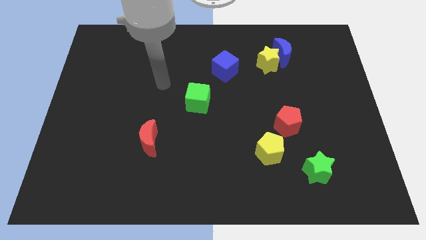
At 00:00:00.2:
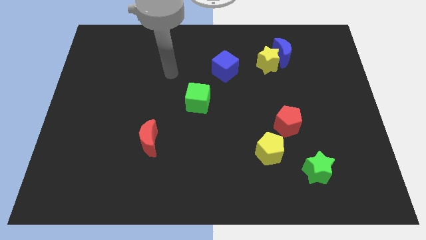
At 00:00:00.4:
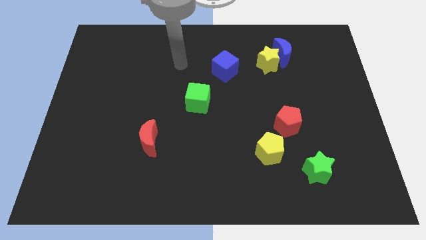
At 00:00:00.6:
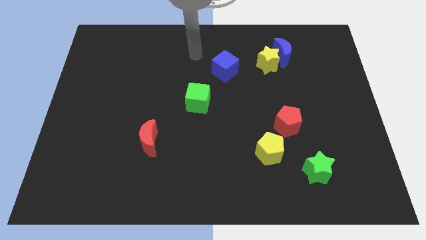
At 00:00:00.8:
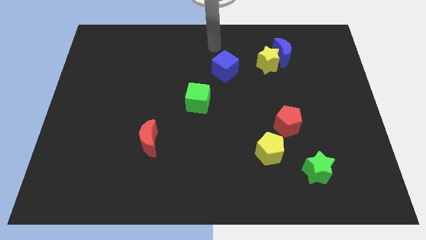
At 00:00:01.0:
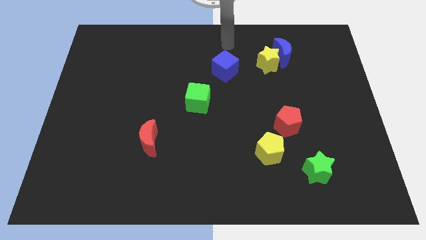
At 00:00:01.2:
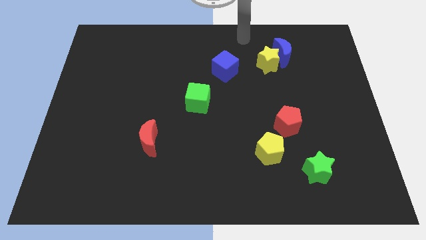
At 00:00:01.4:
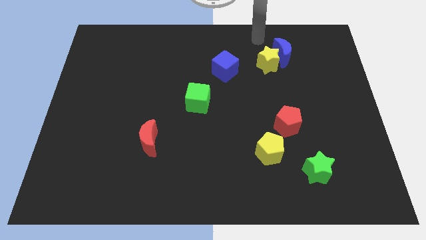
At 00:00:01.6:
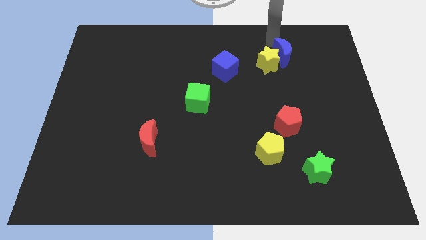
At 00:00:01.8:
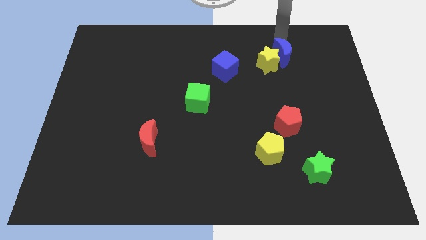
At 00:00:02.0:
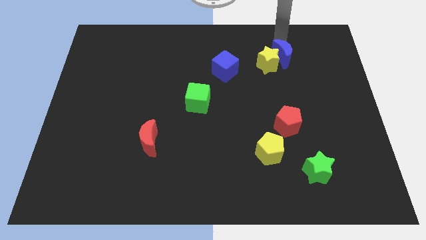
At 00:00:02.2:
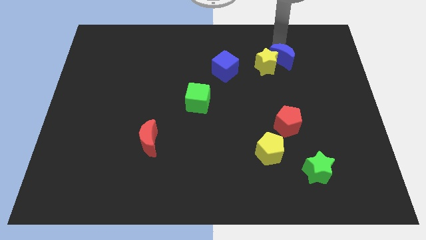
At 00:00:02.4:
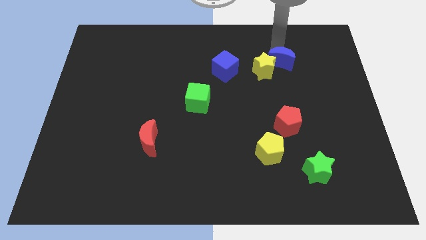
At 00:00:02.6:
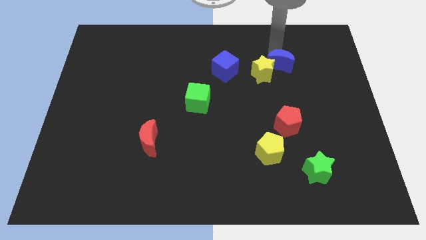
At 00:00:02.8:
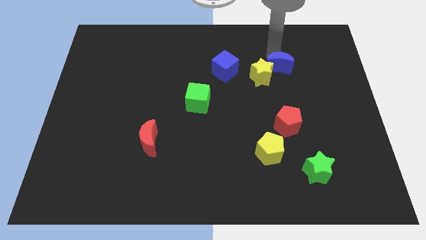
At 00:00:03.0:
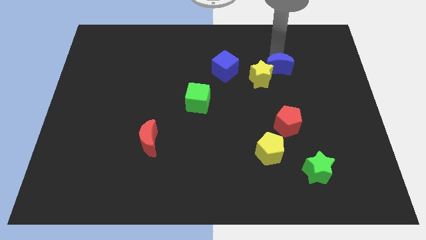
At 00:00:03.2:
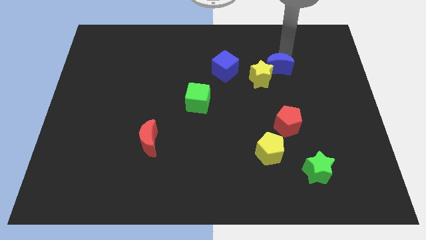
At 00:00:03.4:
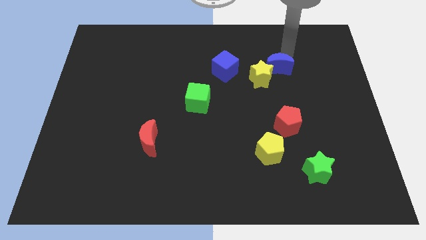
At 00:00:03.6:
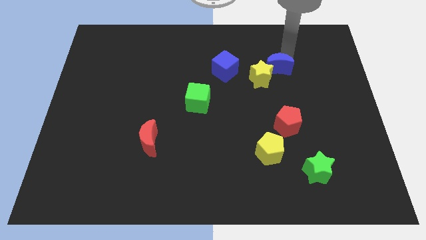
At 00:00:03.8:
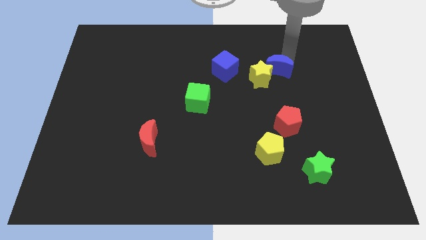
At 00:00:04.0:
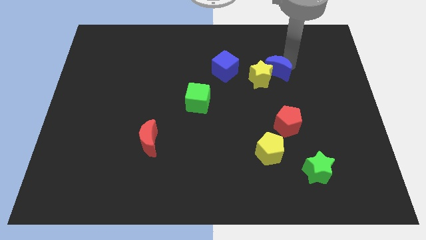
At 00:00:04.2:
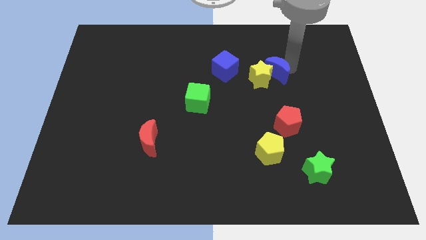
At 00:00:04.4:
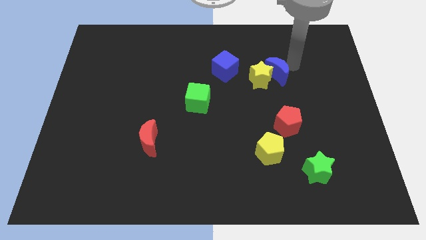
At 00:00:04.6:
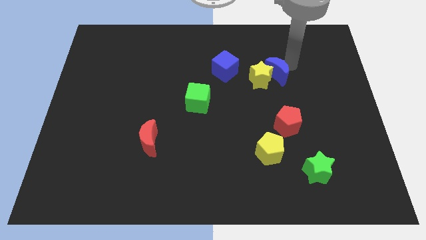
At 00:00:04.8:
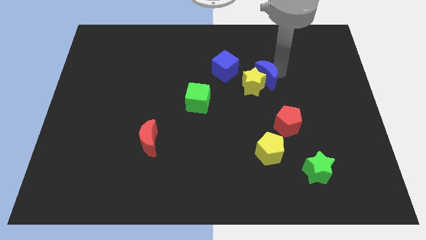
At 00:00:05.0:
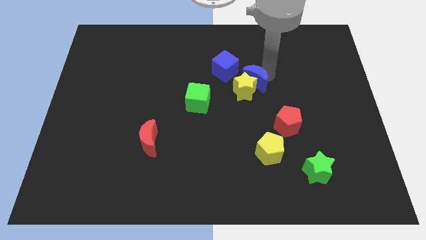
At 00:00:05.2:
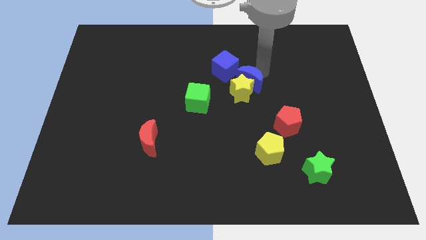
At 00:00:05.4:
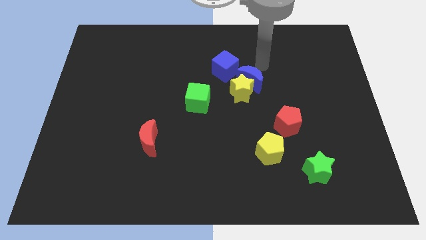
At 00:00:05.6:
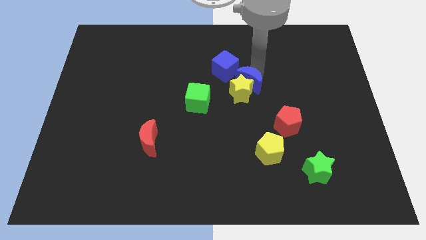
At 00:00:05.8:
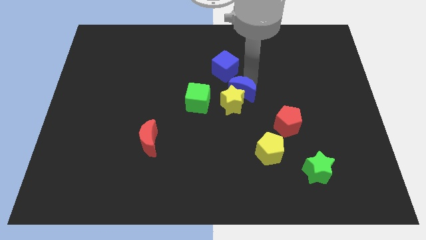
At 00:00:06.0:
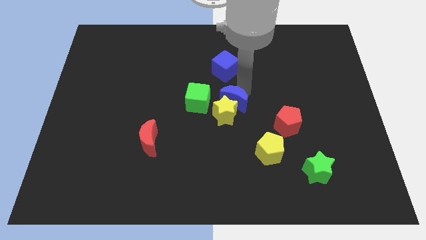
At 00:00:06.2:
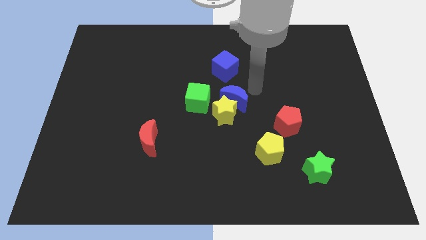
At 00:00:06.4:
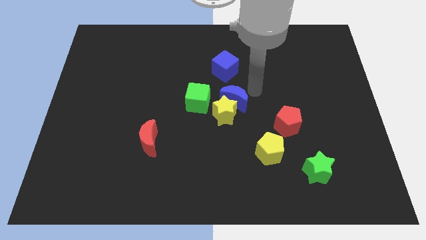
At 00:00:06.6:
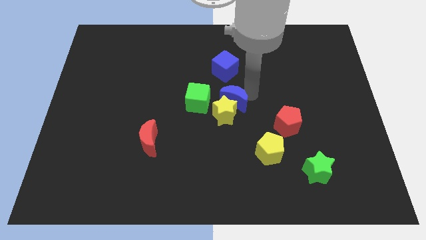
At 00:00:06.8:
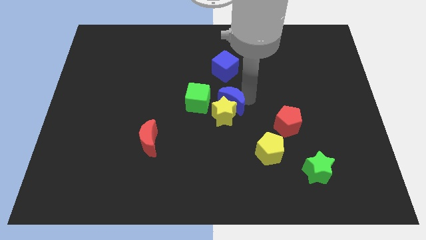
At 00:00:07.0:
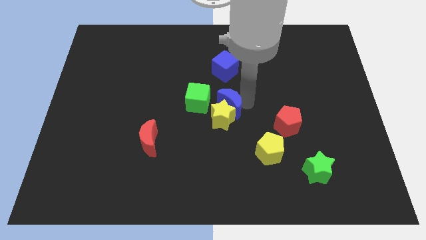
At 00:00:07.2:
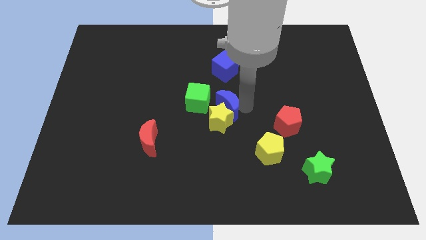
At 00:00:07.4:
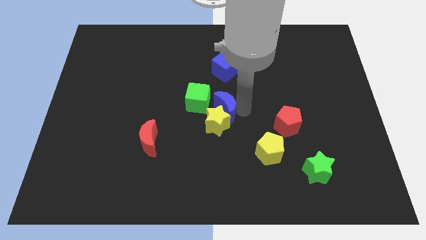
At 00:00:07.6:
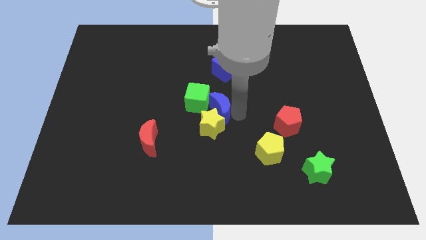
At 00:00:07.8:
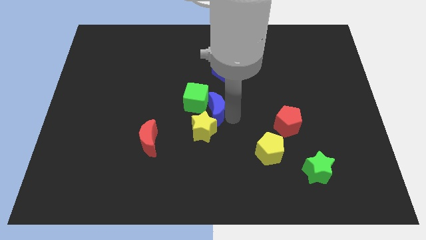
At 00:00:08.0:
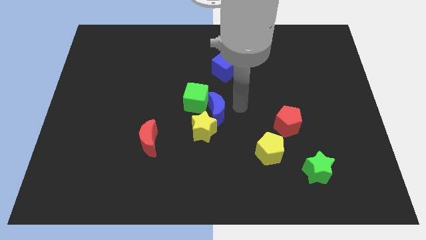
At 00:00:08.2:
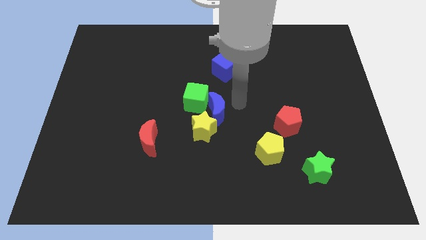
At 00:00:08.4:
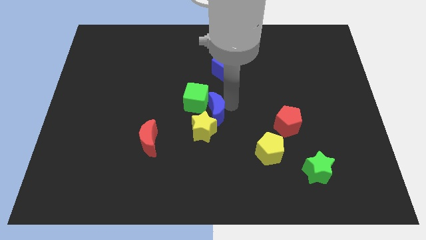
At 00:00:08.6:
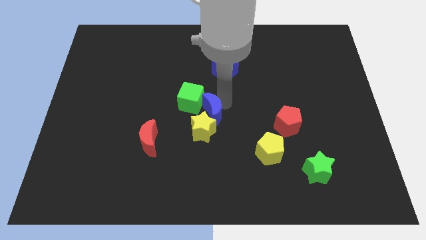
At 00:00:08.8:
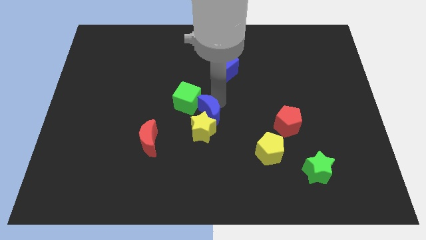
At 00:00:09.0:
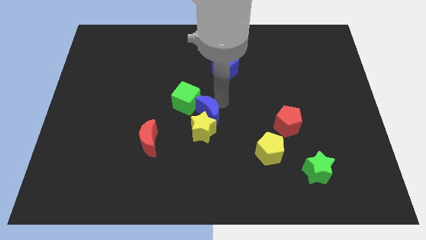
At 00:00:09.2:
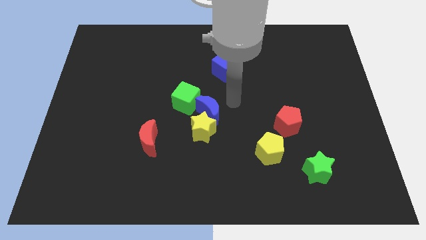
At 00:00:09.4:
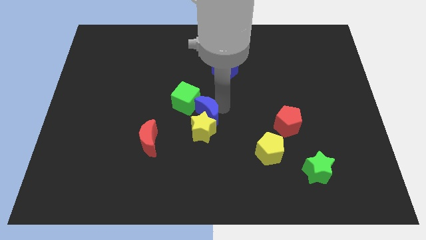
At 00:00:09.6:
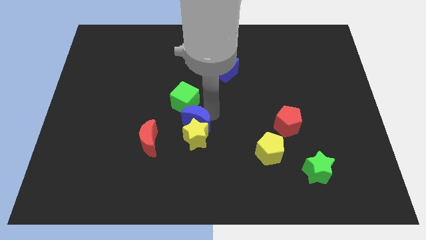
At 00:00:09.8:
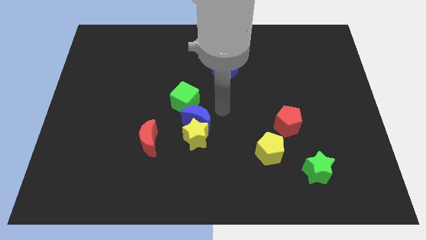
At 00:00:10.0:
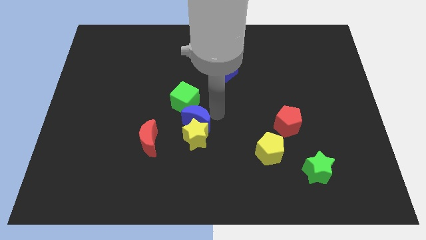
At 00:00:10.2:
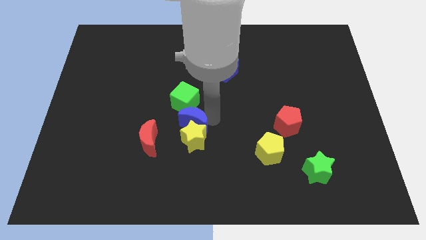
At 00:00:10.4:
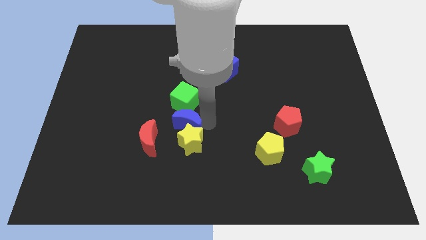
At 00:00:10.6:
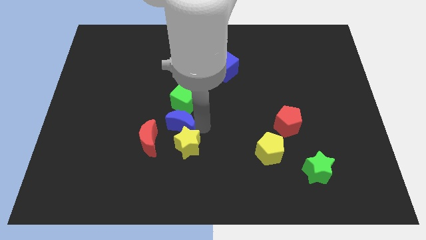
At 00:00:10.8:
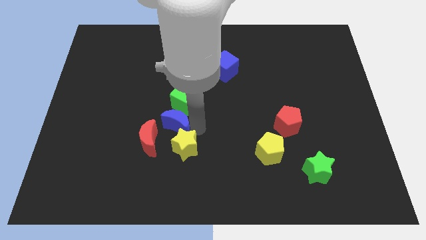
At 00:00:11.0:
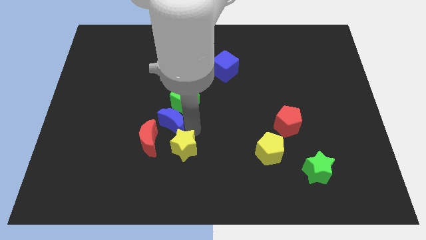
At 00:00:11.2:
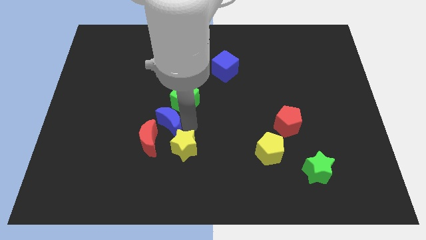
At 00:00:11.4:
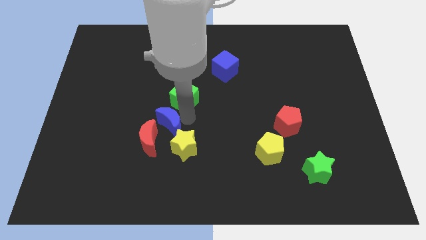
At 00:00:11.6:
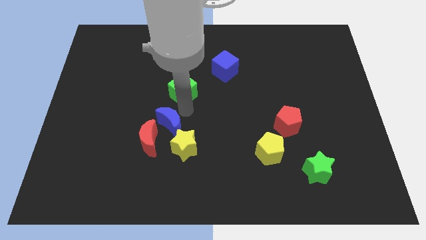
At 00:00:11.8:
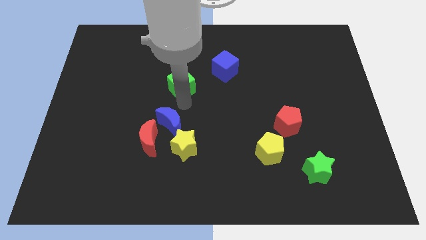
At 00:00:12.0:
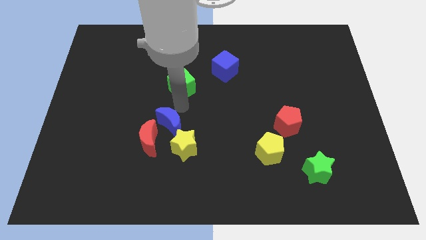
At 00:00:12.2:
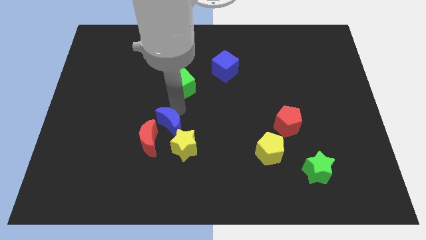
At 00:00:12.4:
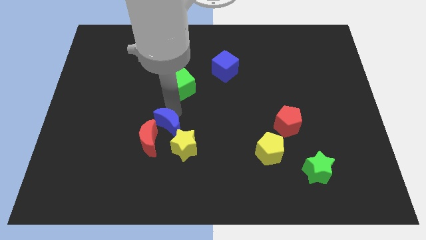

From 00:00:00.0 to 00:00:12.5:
push the blue moon close to the red moon

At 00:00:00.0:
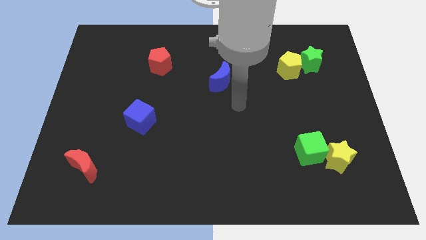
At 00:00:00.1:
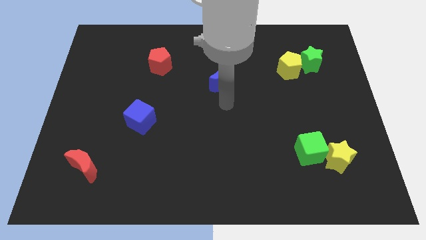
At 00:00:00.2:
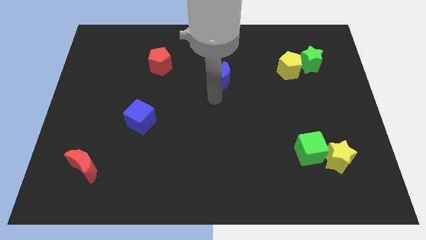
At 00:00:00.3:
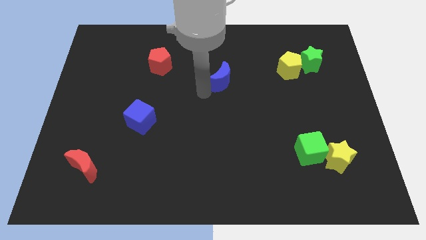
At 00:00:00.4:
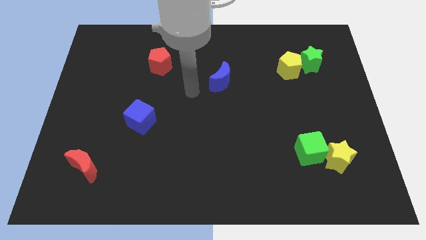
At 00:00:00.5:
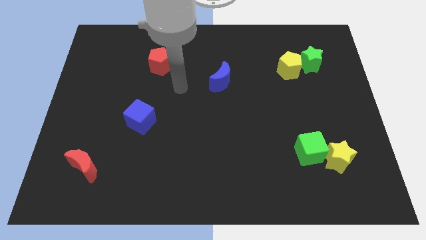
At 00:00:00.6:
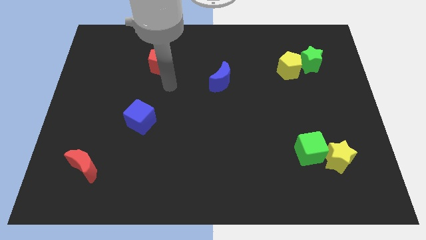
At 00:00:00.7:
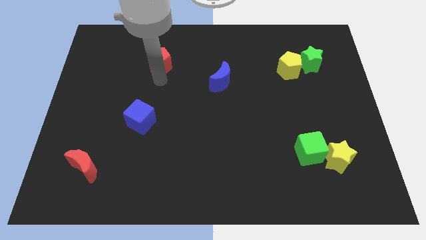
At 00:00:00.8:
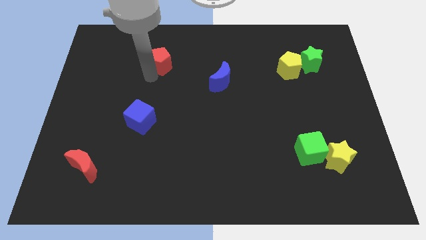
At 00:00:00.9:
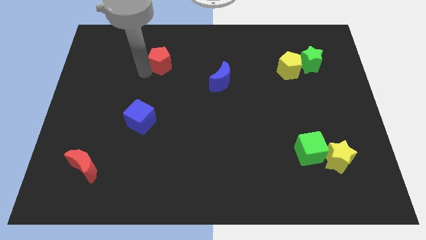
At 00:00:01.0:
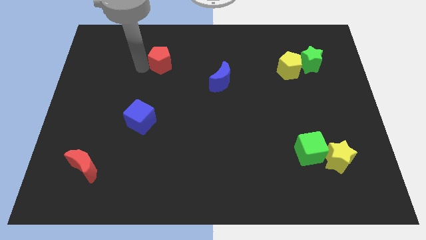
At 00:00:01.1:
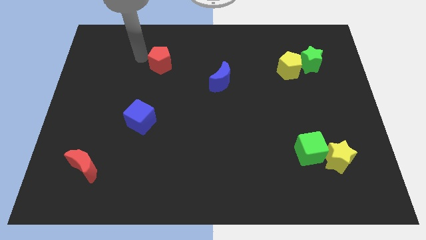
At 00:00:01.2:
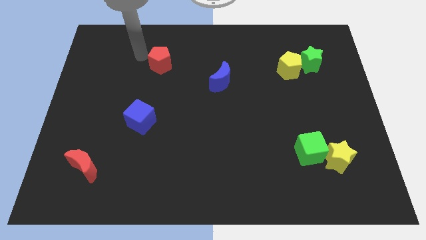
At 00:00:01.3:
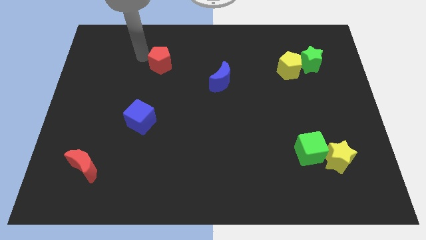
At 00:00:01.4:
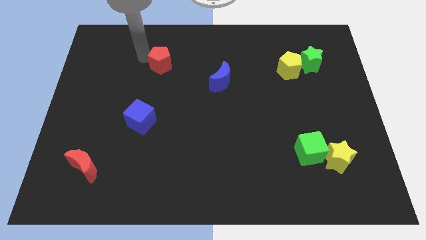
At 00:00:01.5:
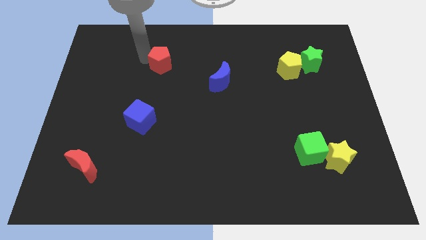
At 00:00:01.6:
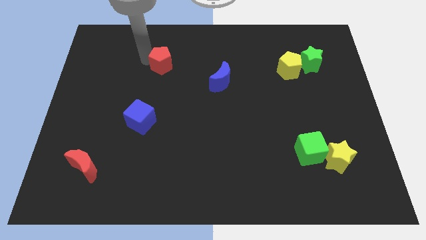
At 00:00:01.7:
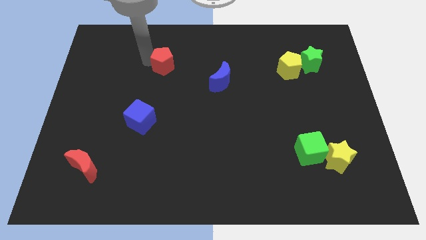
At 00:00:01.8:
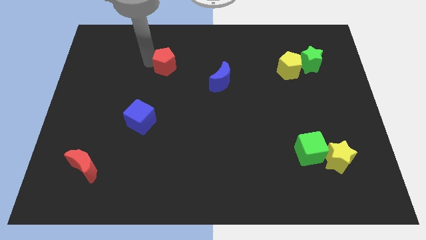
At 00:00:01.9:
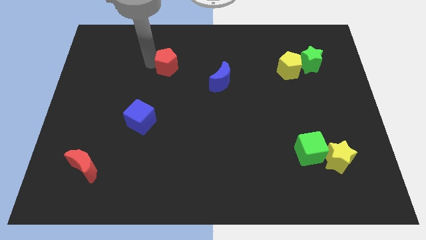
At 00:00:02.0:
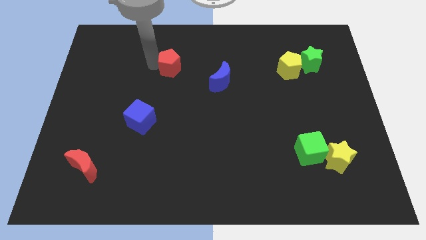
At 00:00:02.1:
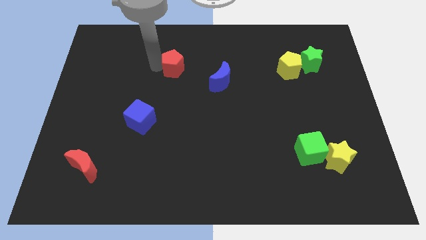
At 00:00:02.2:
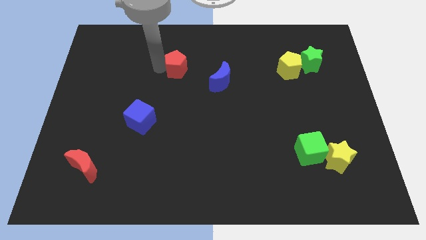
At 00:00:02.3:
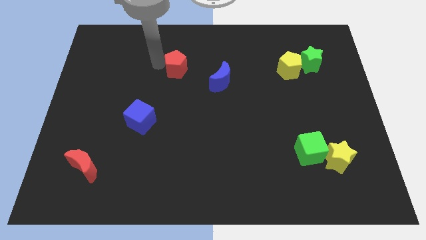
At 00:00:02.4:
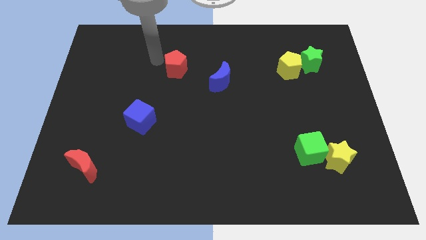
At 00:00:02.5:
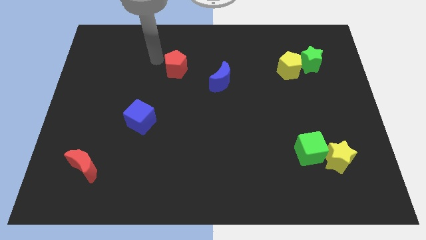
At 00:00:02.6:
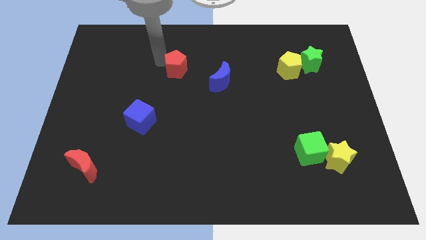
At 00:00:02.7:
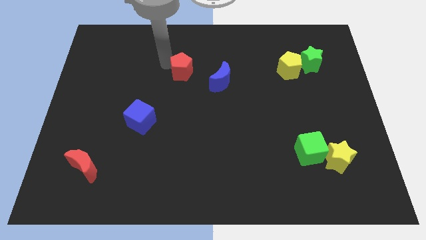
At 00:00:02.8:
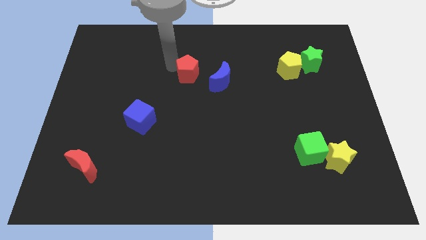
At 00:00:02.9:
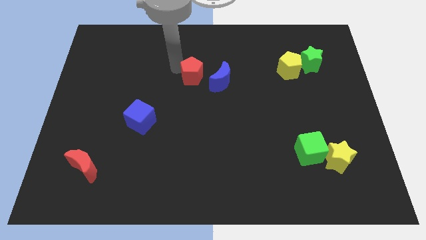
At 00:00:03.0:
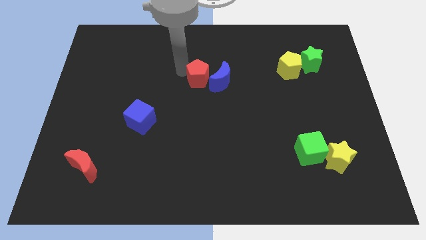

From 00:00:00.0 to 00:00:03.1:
push the red pentagon next to the blue moon
